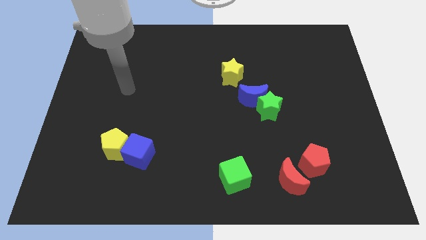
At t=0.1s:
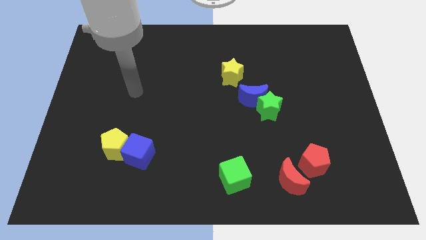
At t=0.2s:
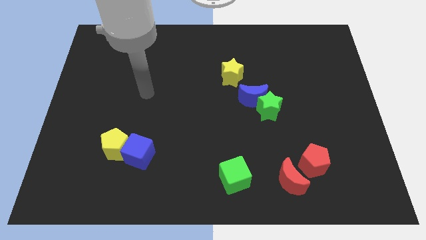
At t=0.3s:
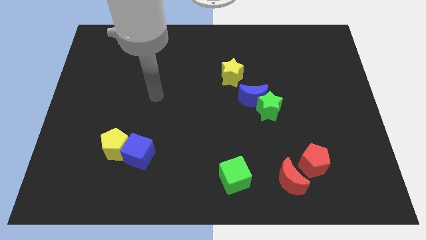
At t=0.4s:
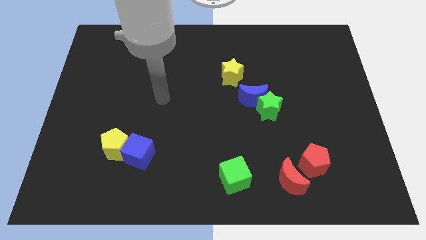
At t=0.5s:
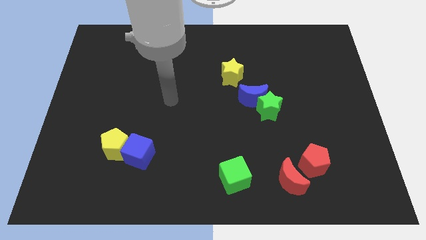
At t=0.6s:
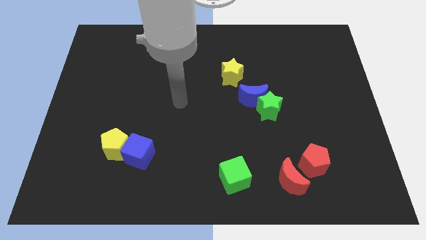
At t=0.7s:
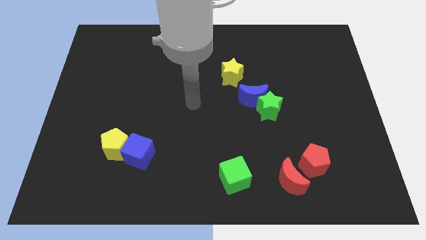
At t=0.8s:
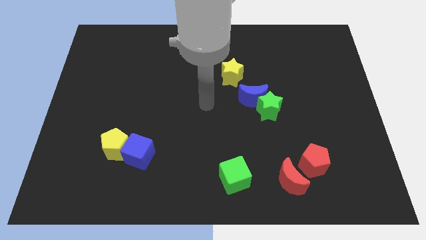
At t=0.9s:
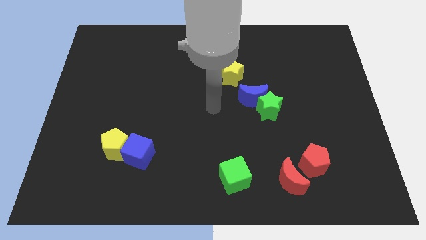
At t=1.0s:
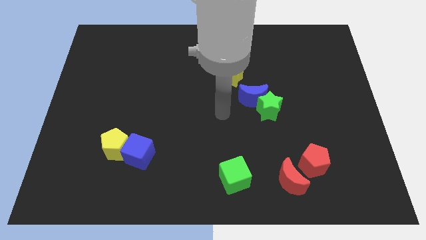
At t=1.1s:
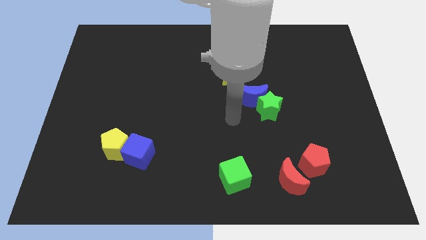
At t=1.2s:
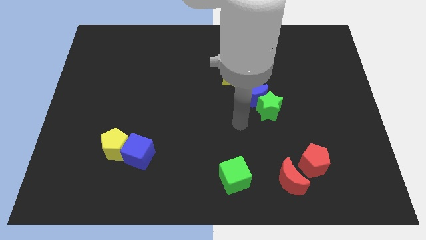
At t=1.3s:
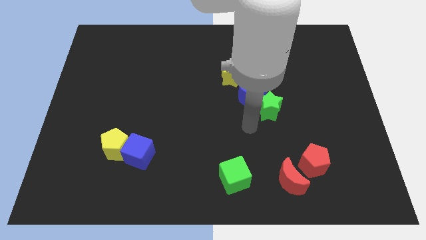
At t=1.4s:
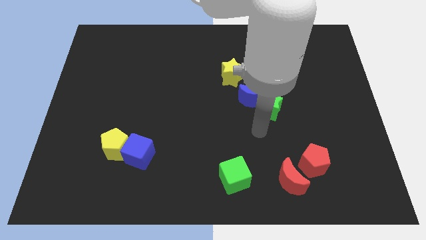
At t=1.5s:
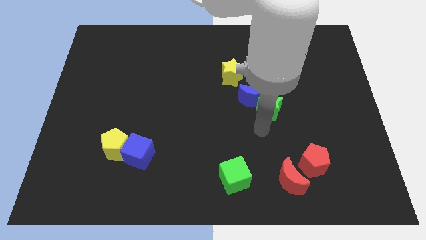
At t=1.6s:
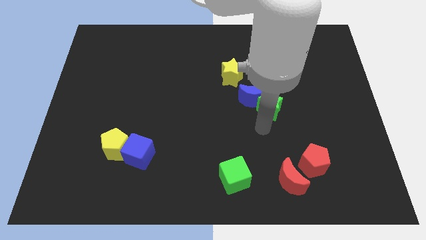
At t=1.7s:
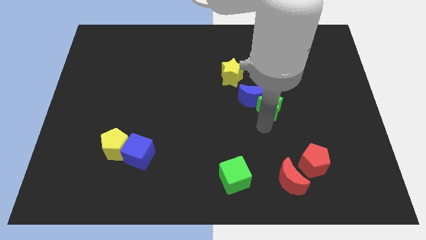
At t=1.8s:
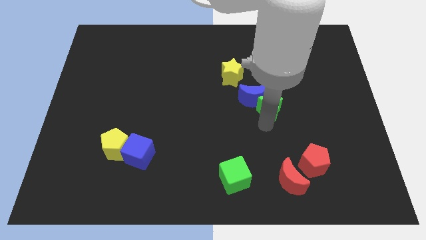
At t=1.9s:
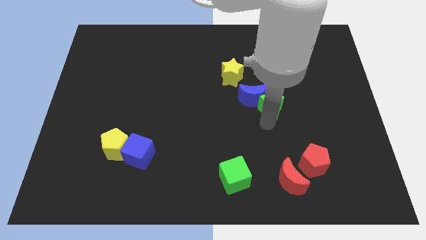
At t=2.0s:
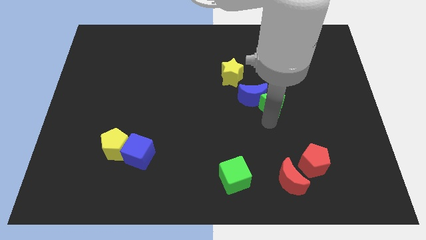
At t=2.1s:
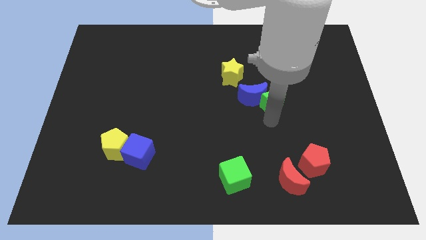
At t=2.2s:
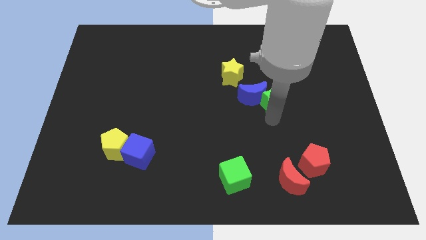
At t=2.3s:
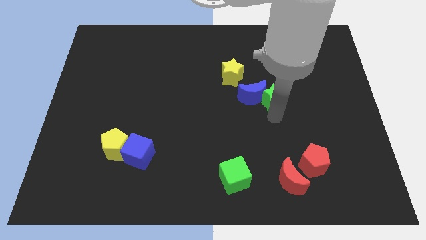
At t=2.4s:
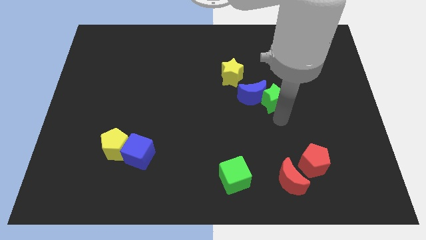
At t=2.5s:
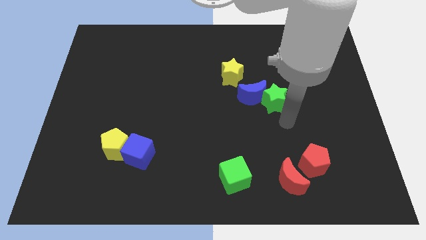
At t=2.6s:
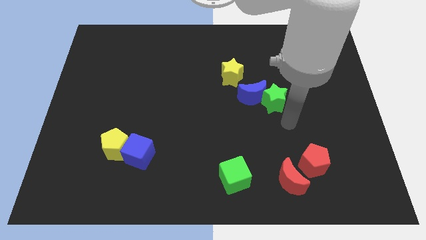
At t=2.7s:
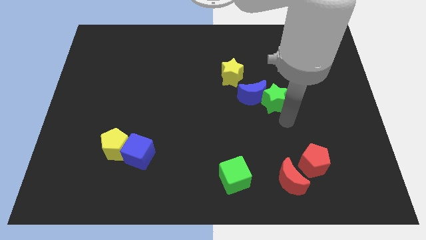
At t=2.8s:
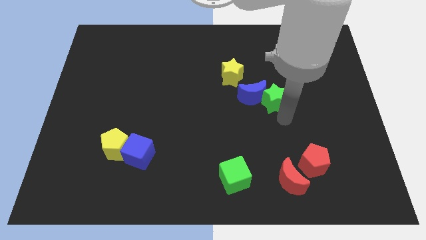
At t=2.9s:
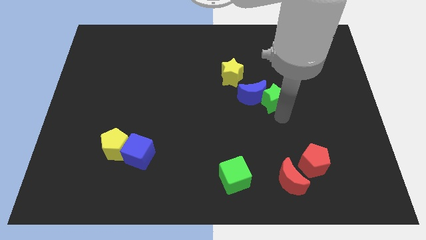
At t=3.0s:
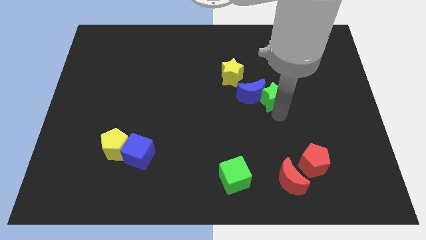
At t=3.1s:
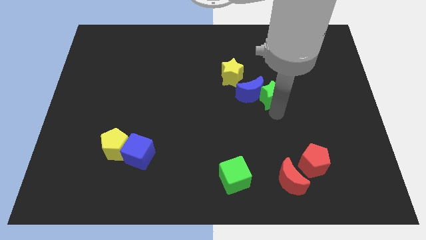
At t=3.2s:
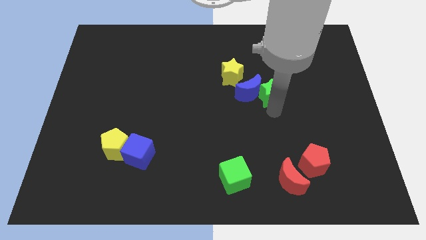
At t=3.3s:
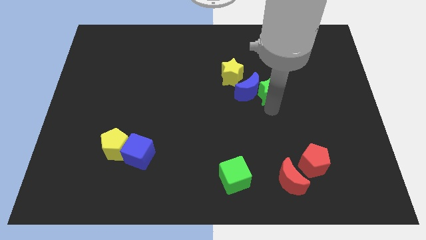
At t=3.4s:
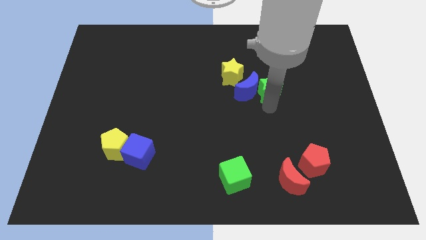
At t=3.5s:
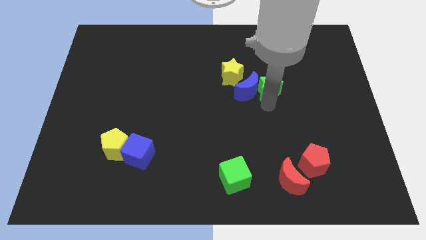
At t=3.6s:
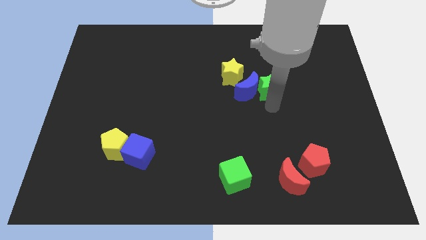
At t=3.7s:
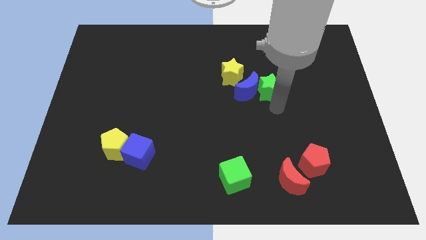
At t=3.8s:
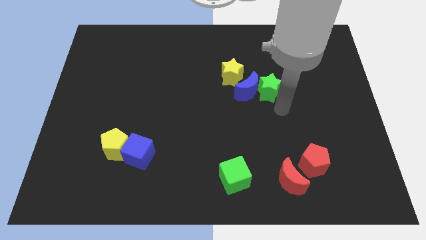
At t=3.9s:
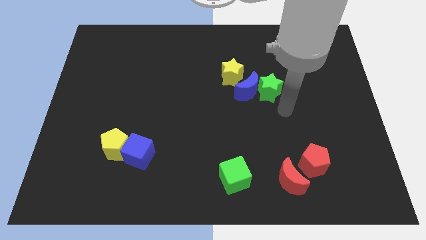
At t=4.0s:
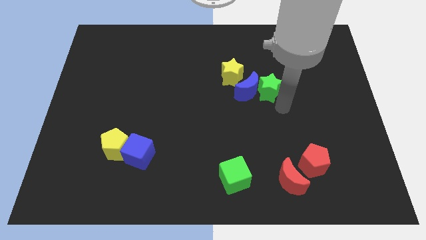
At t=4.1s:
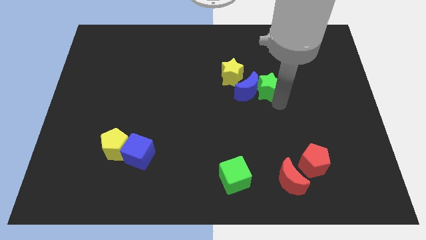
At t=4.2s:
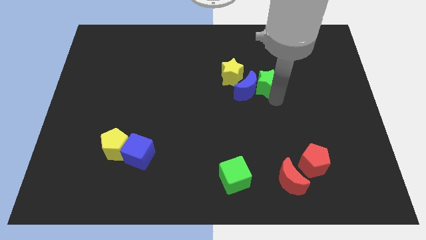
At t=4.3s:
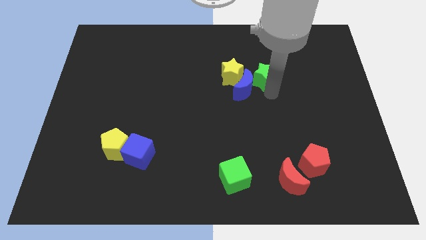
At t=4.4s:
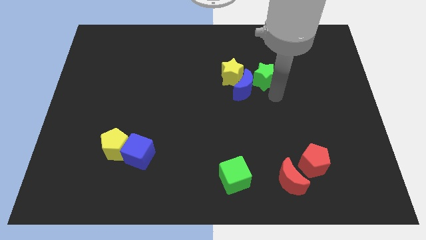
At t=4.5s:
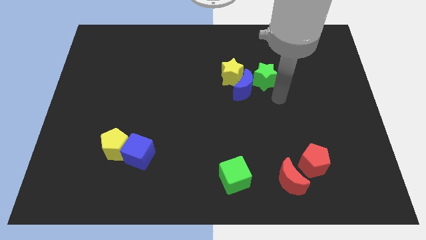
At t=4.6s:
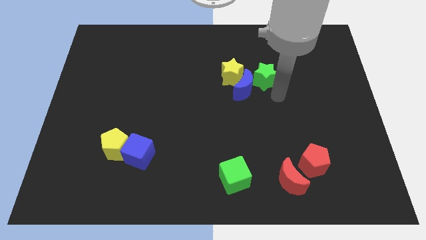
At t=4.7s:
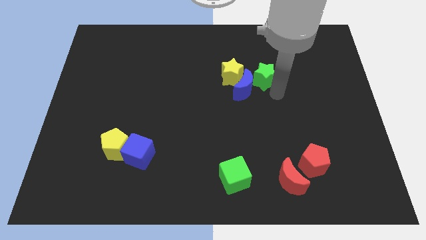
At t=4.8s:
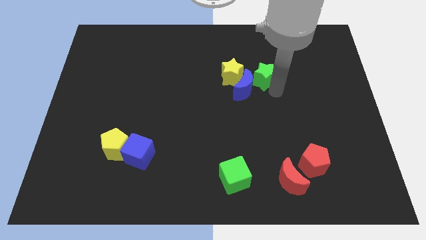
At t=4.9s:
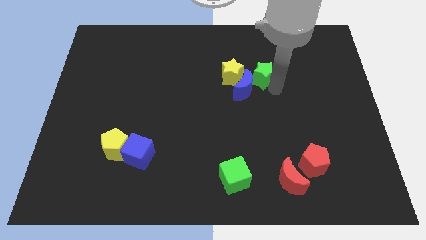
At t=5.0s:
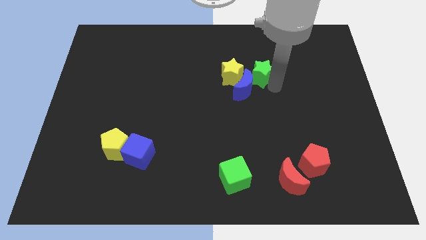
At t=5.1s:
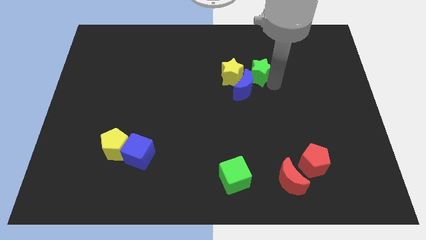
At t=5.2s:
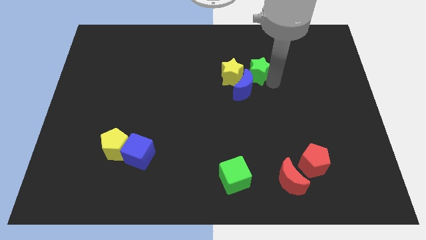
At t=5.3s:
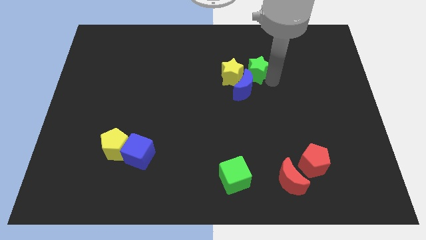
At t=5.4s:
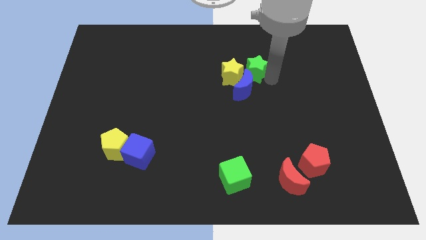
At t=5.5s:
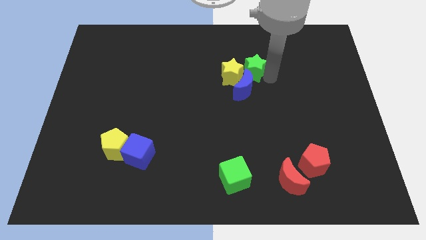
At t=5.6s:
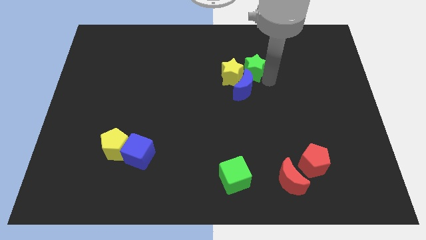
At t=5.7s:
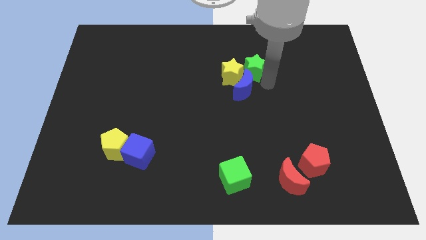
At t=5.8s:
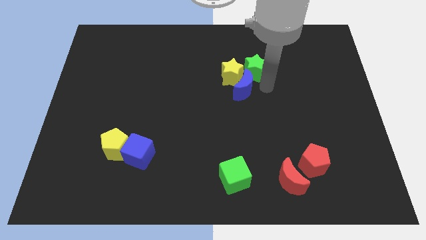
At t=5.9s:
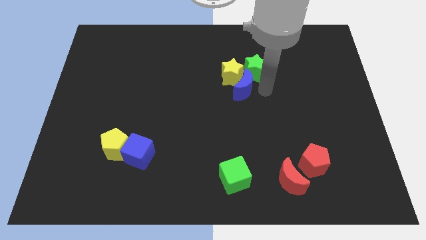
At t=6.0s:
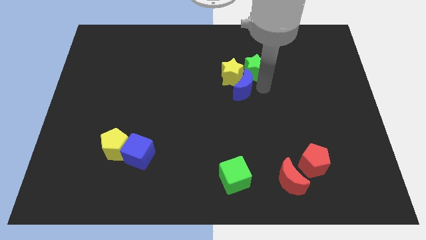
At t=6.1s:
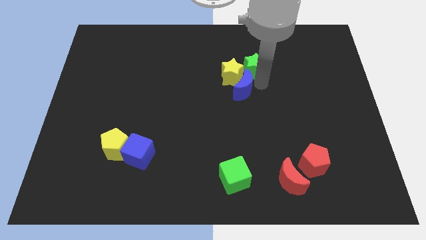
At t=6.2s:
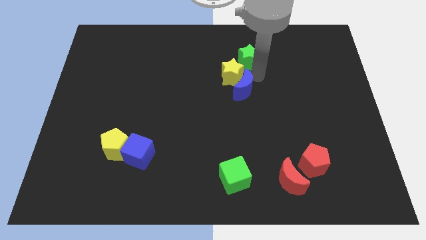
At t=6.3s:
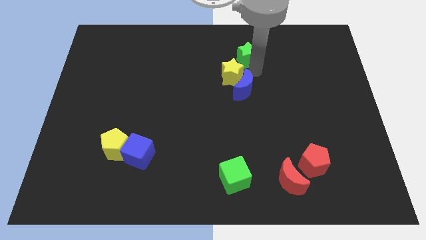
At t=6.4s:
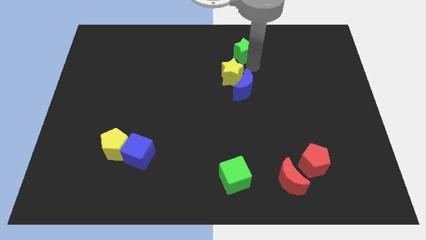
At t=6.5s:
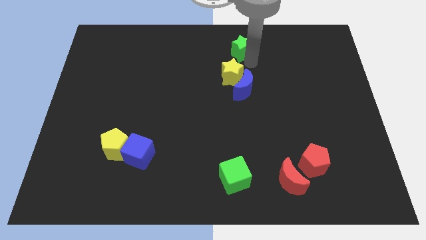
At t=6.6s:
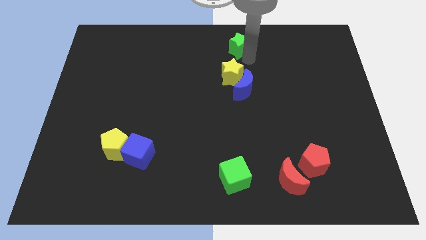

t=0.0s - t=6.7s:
put the green star to the towards your base
